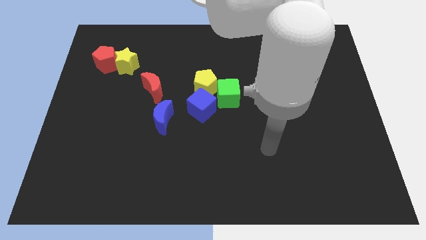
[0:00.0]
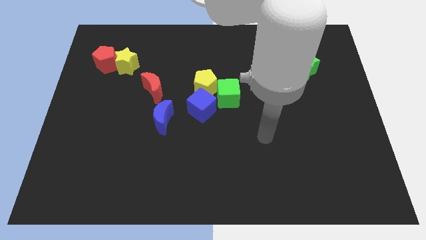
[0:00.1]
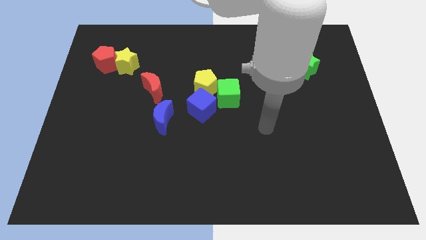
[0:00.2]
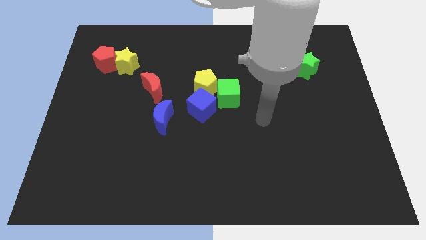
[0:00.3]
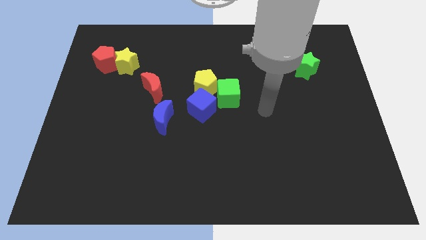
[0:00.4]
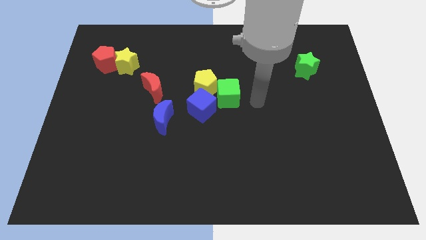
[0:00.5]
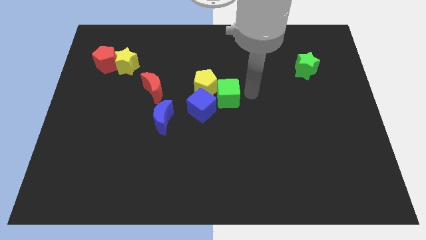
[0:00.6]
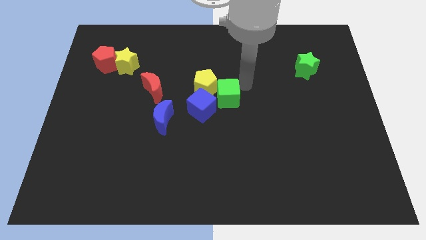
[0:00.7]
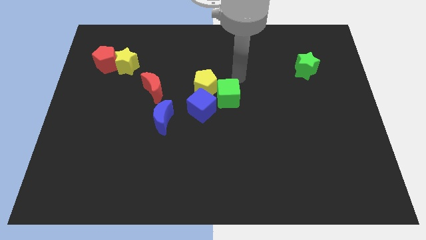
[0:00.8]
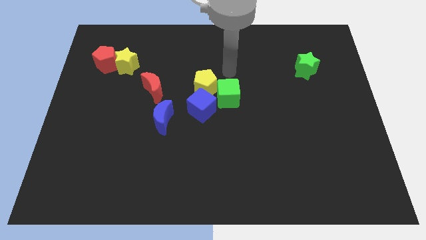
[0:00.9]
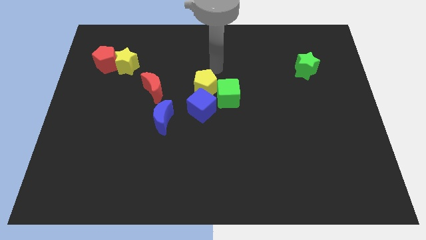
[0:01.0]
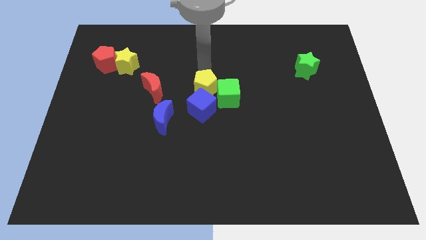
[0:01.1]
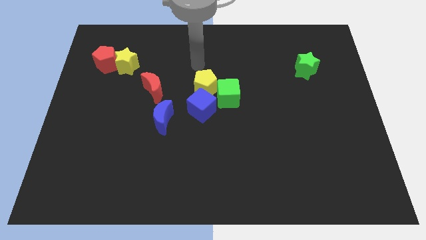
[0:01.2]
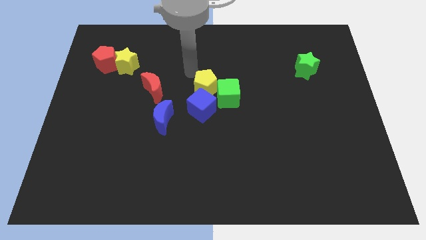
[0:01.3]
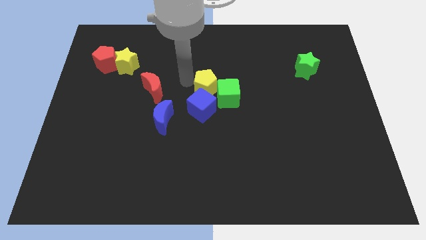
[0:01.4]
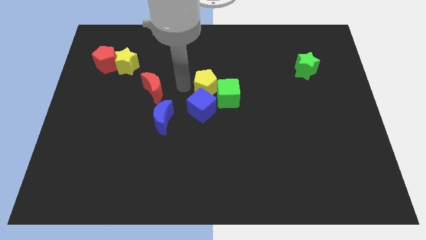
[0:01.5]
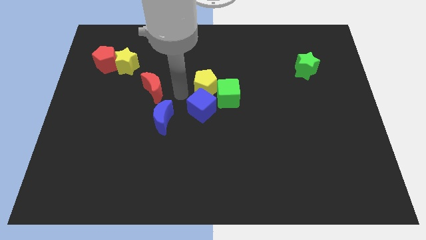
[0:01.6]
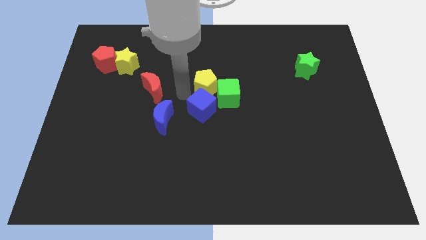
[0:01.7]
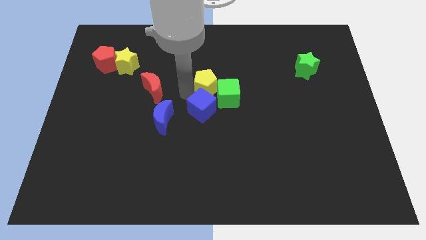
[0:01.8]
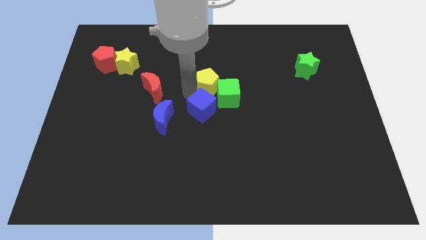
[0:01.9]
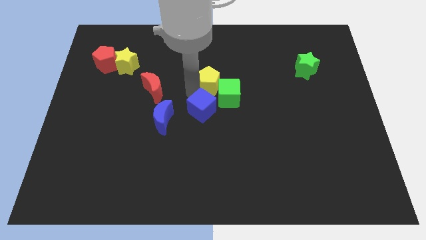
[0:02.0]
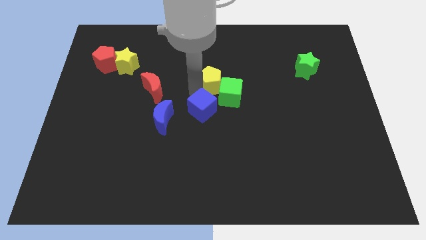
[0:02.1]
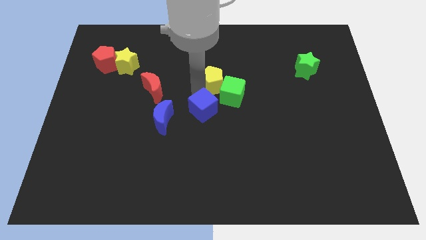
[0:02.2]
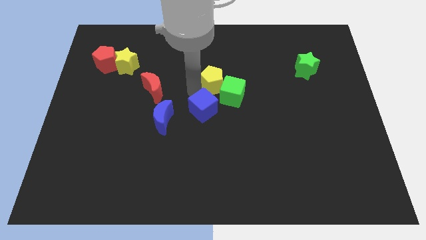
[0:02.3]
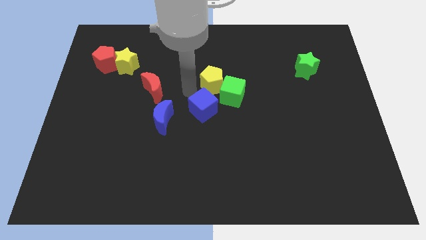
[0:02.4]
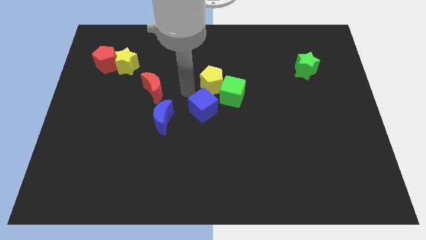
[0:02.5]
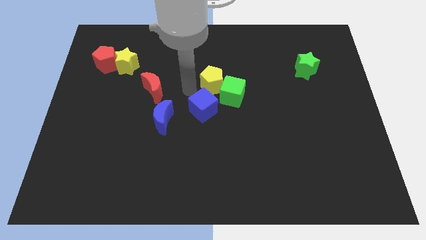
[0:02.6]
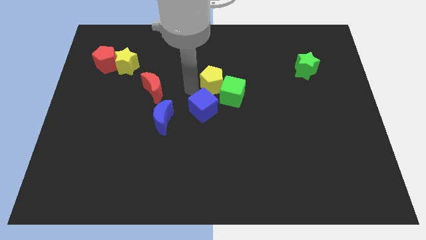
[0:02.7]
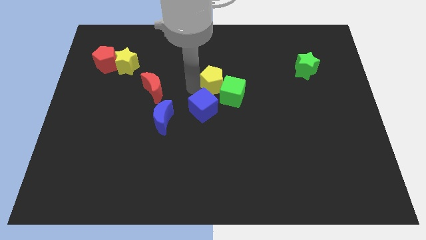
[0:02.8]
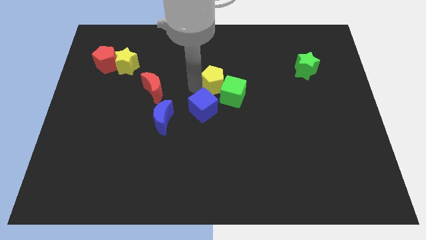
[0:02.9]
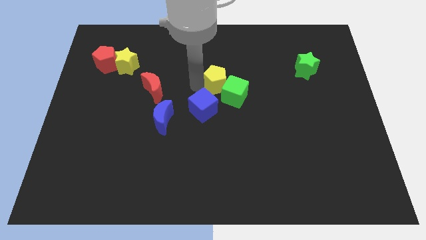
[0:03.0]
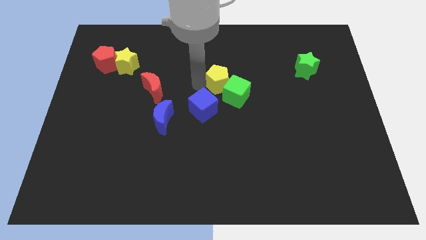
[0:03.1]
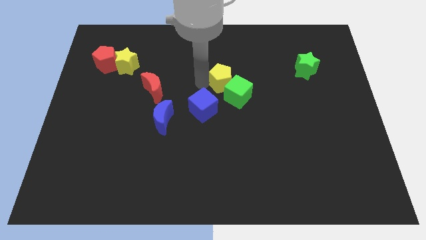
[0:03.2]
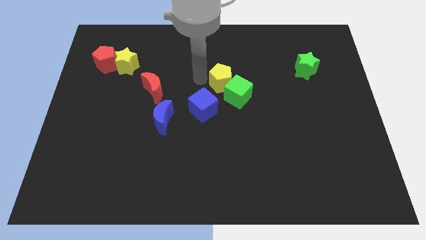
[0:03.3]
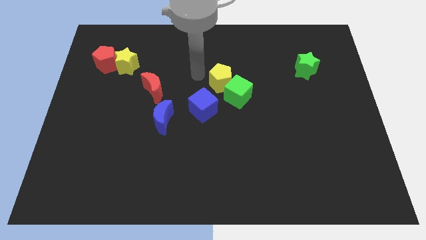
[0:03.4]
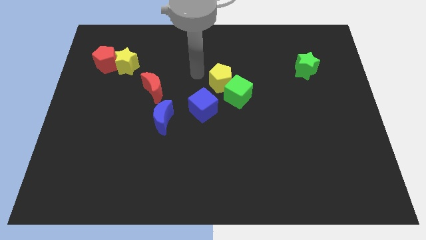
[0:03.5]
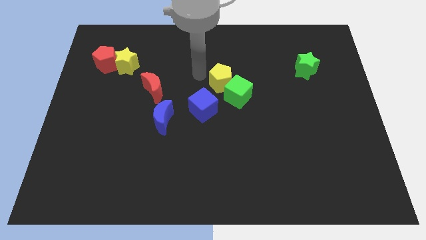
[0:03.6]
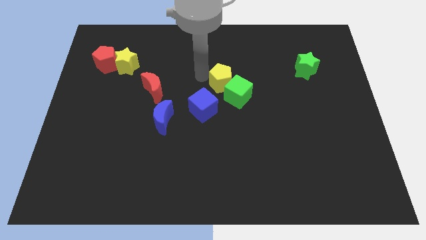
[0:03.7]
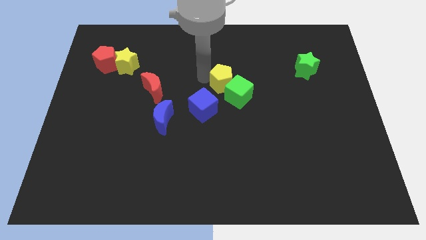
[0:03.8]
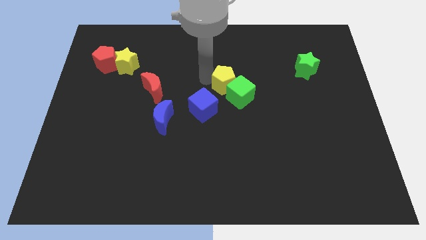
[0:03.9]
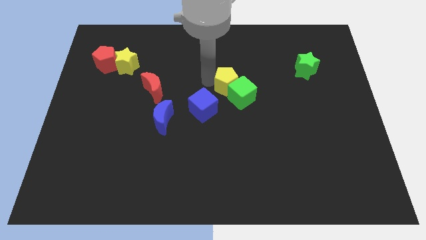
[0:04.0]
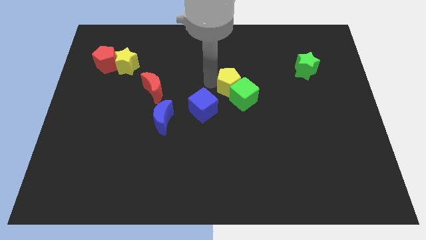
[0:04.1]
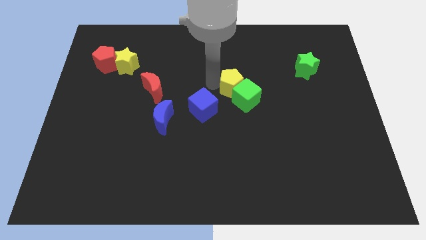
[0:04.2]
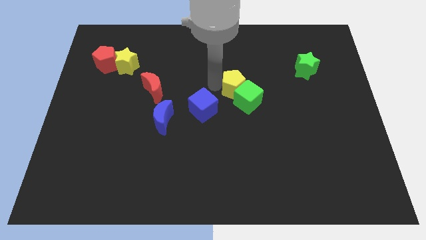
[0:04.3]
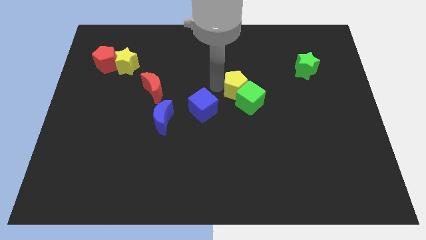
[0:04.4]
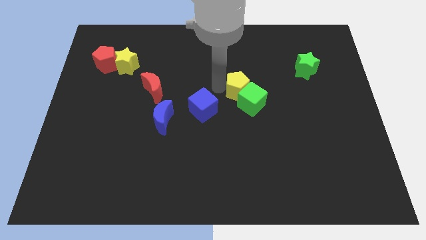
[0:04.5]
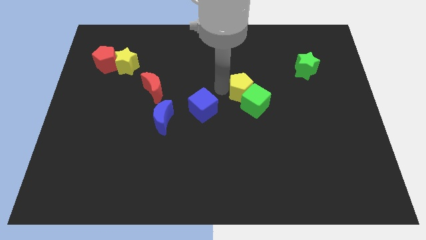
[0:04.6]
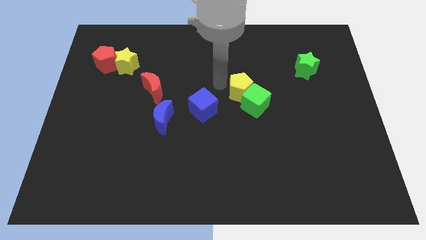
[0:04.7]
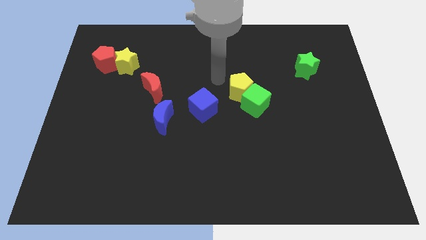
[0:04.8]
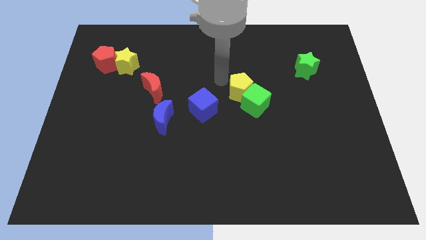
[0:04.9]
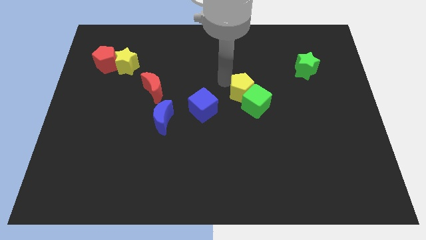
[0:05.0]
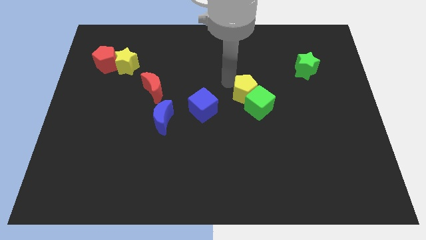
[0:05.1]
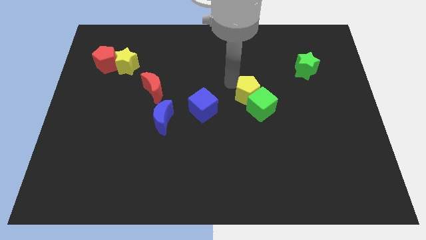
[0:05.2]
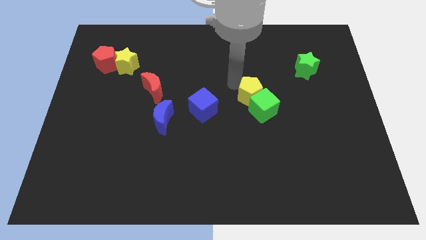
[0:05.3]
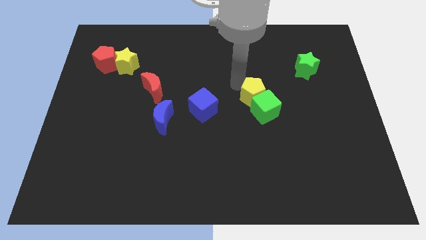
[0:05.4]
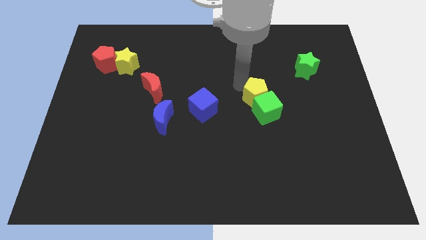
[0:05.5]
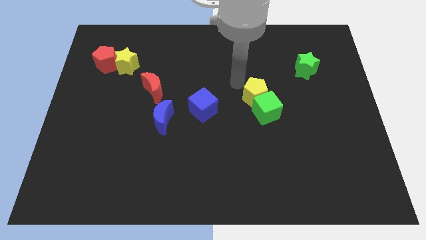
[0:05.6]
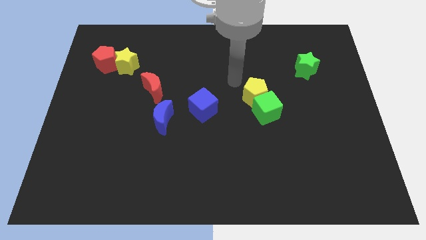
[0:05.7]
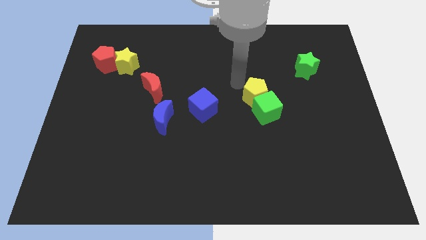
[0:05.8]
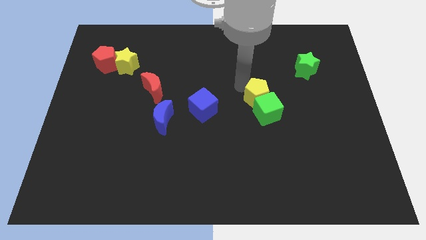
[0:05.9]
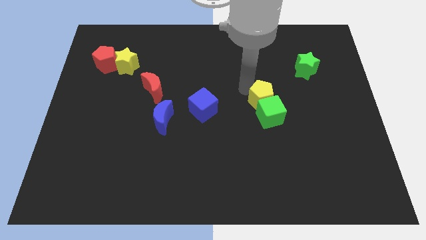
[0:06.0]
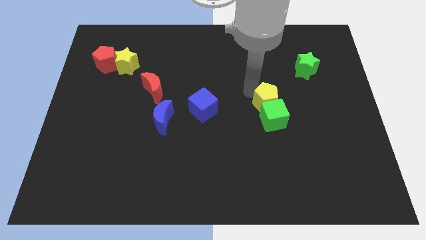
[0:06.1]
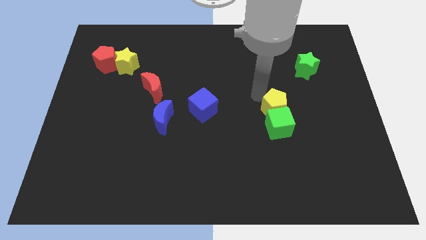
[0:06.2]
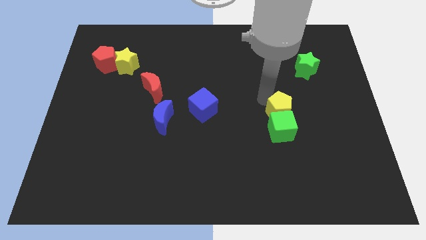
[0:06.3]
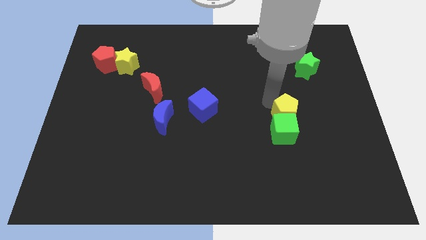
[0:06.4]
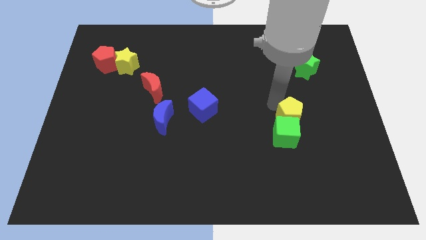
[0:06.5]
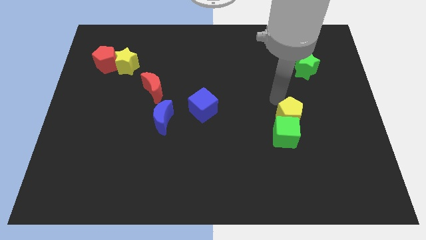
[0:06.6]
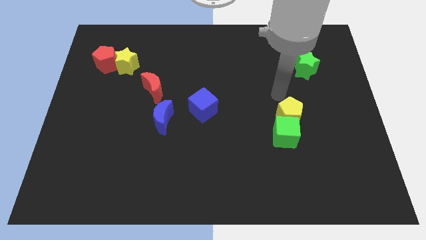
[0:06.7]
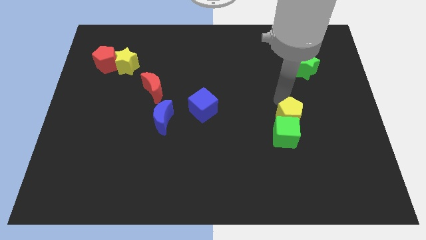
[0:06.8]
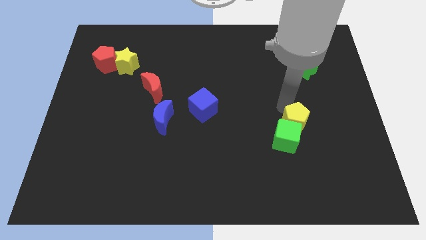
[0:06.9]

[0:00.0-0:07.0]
move the yellow pentagon down and then to the right

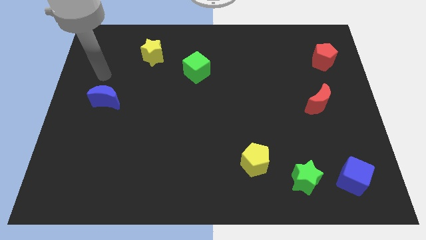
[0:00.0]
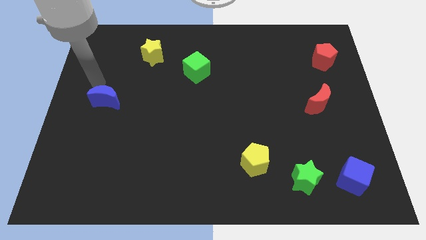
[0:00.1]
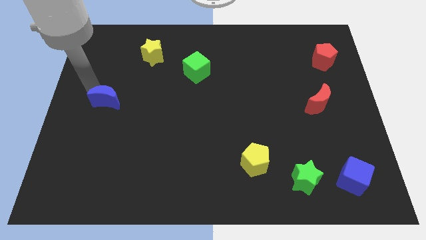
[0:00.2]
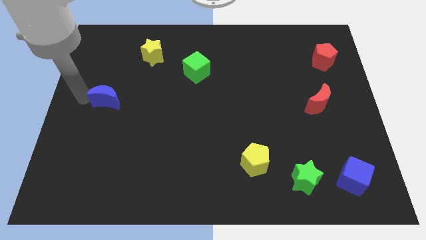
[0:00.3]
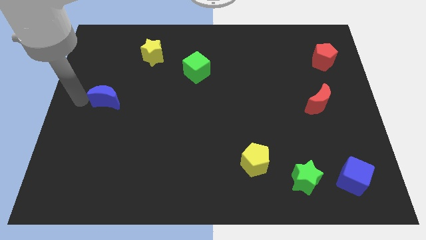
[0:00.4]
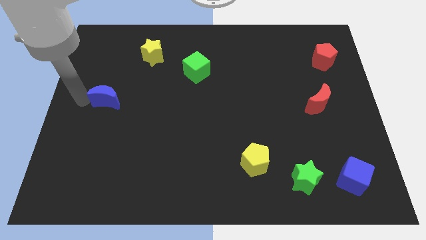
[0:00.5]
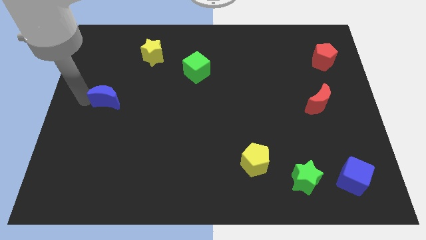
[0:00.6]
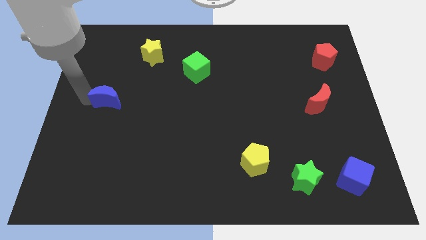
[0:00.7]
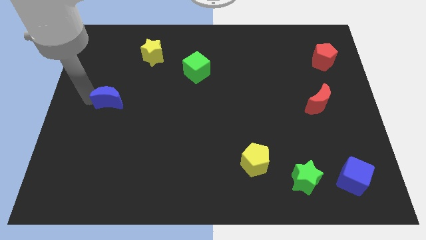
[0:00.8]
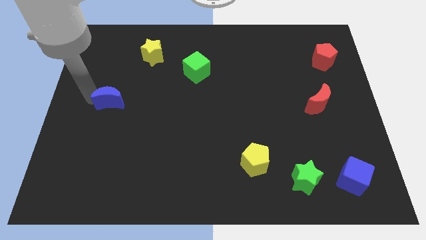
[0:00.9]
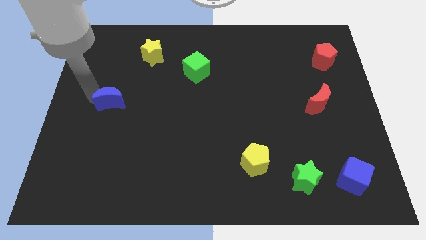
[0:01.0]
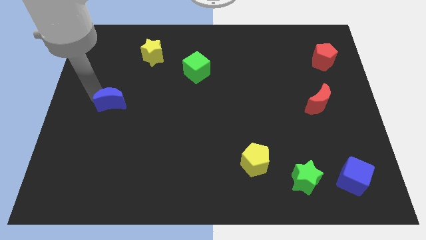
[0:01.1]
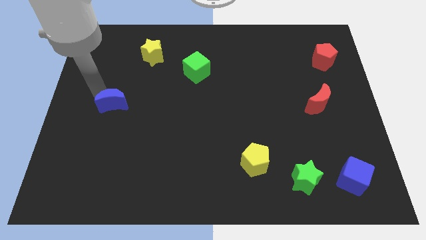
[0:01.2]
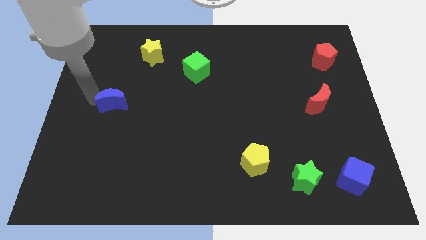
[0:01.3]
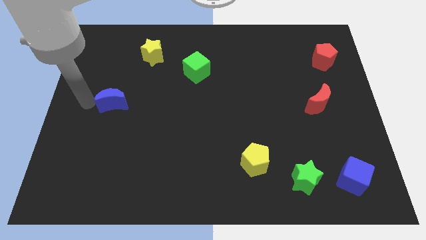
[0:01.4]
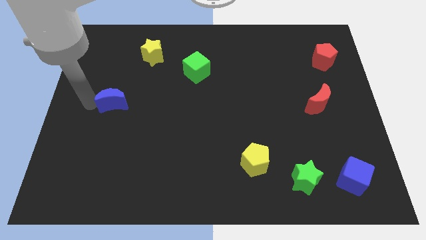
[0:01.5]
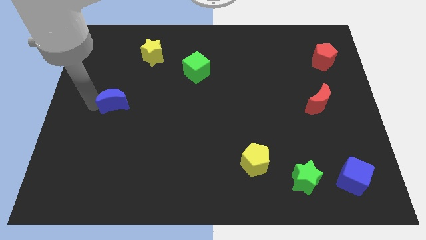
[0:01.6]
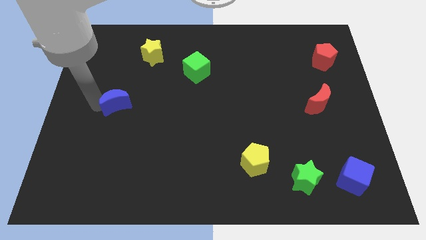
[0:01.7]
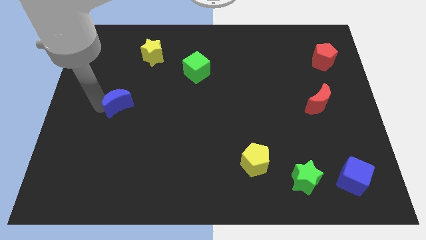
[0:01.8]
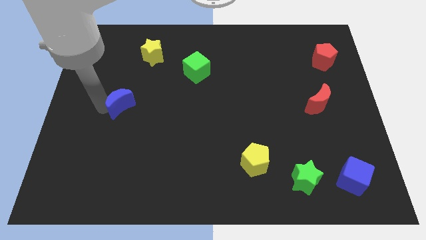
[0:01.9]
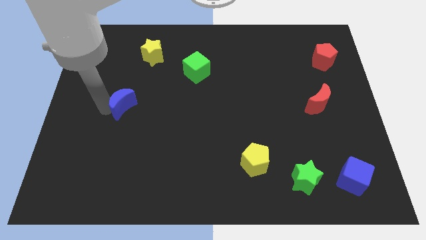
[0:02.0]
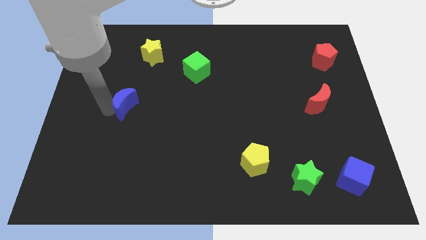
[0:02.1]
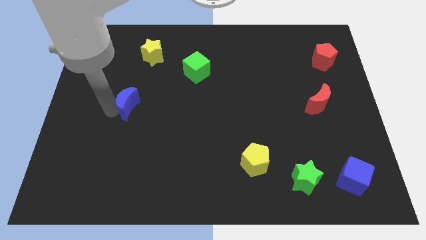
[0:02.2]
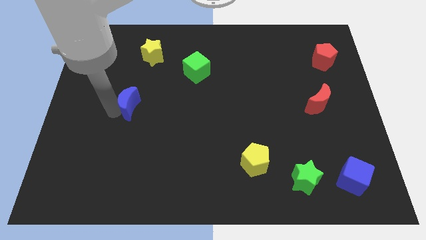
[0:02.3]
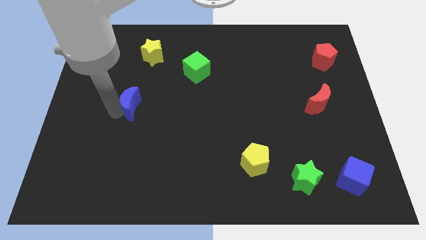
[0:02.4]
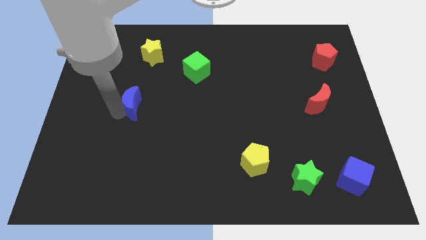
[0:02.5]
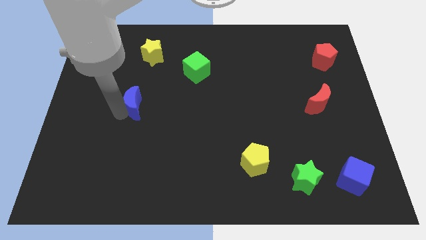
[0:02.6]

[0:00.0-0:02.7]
slightly push the blue moon right
